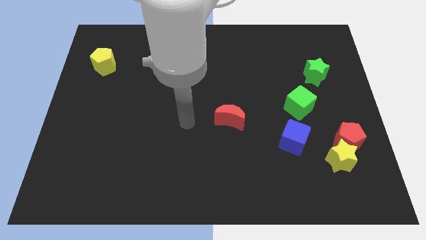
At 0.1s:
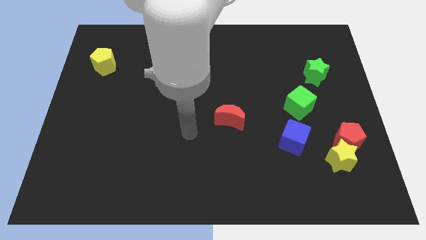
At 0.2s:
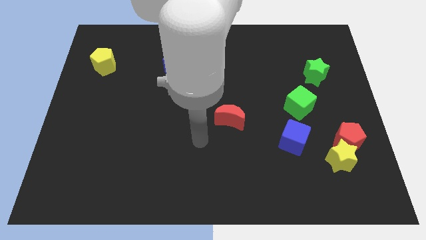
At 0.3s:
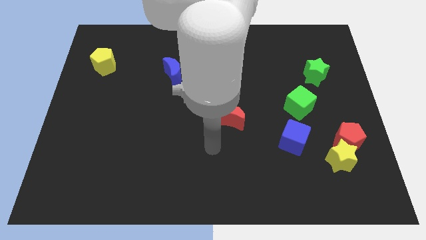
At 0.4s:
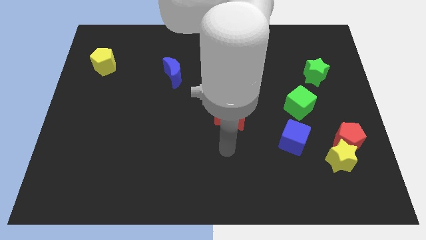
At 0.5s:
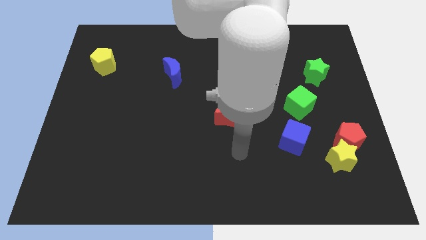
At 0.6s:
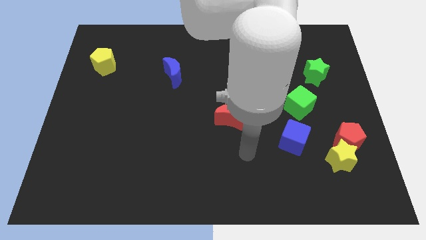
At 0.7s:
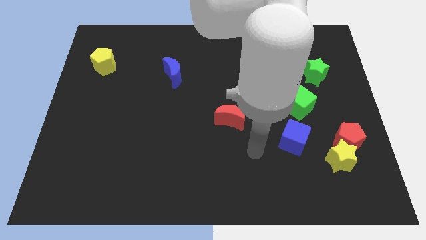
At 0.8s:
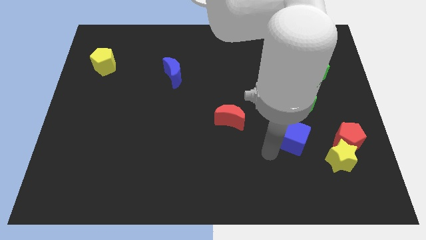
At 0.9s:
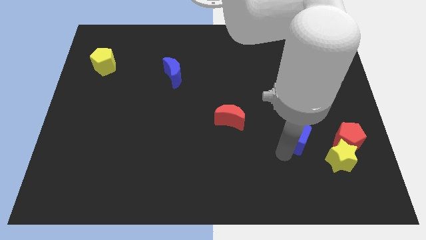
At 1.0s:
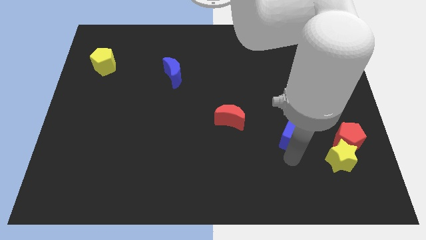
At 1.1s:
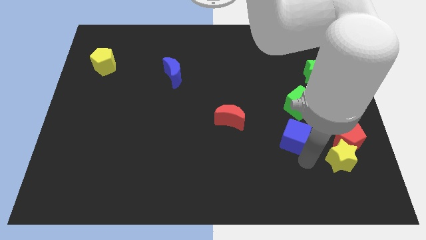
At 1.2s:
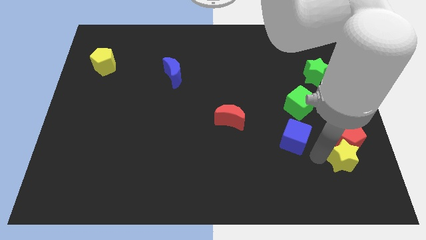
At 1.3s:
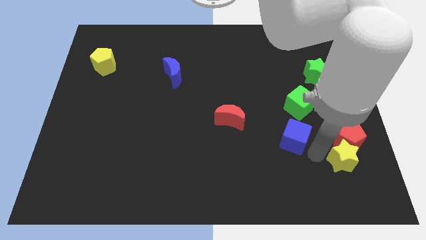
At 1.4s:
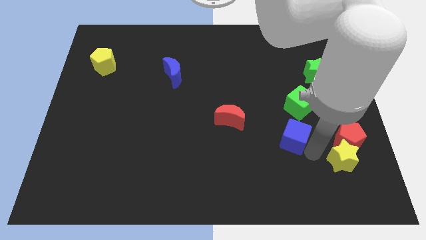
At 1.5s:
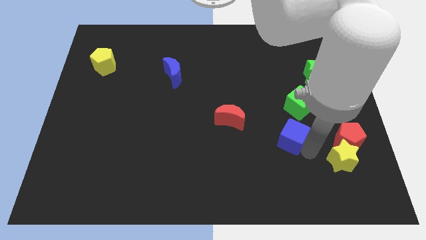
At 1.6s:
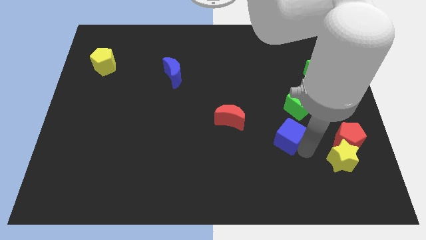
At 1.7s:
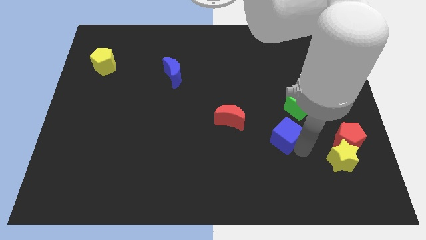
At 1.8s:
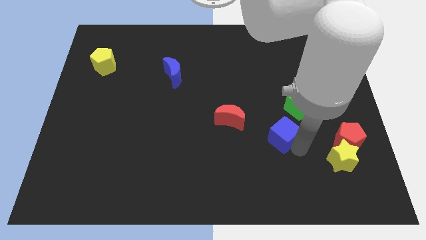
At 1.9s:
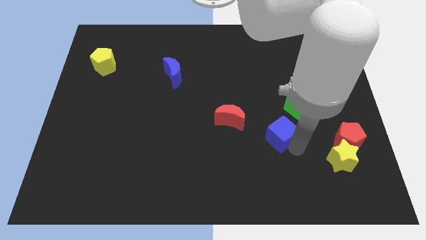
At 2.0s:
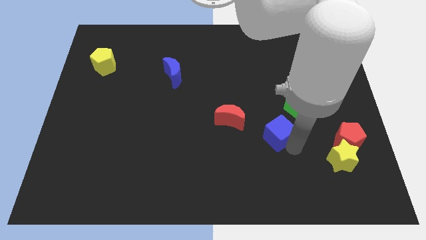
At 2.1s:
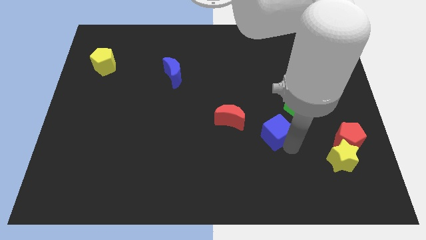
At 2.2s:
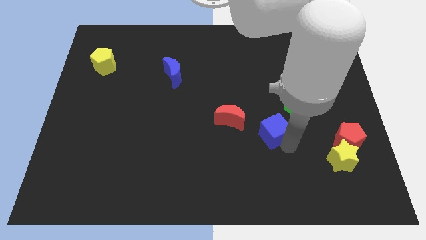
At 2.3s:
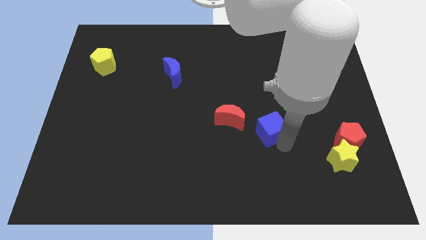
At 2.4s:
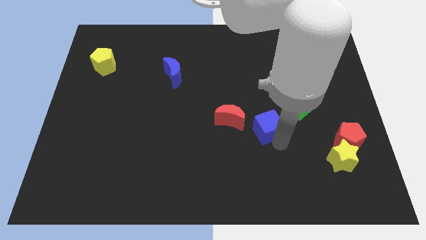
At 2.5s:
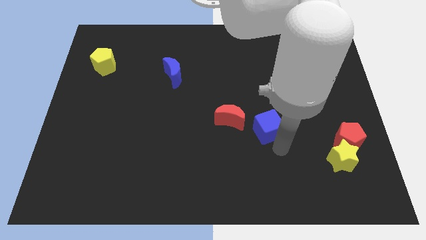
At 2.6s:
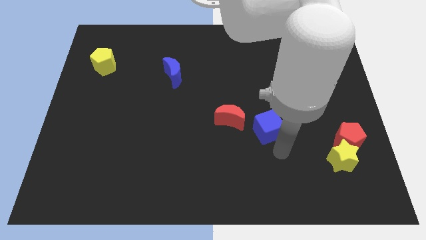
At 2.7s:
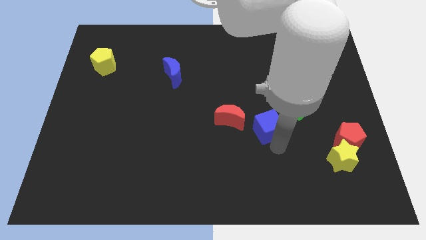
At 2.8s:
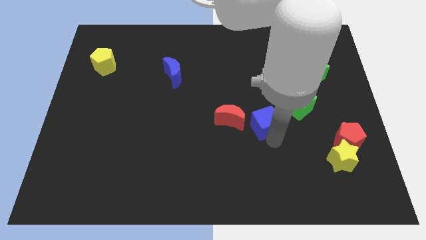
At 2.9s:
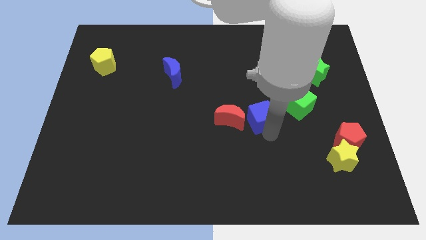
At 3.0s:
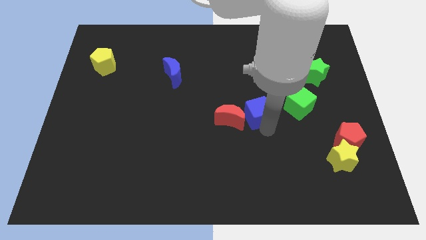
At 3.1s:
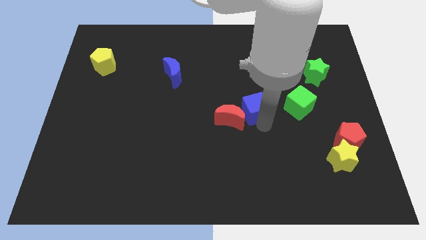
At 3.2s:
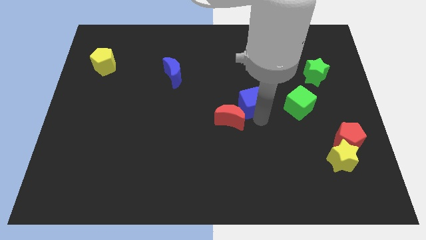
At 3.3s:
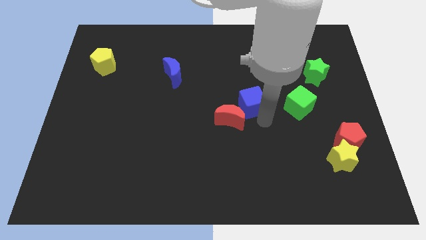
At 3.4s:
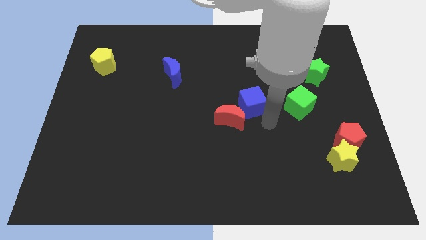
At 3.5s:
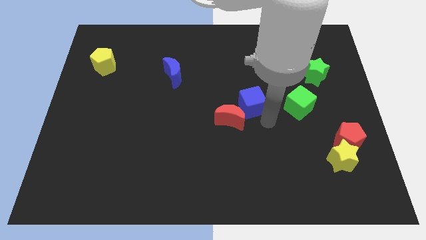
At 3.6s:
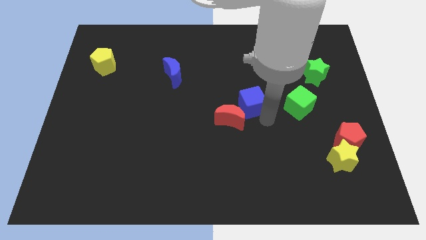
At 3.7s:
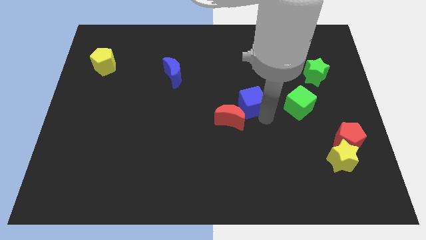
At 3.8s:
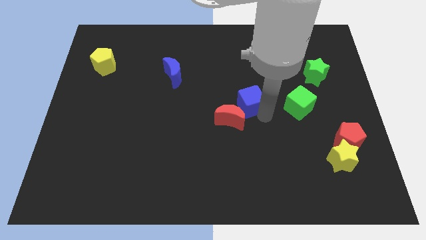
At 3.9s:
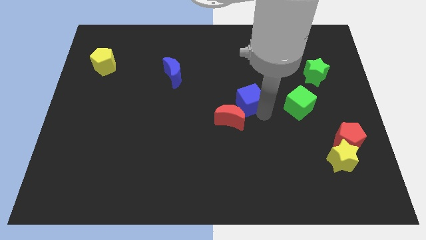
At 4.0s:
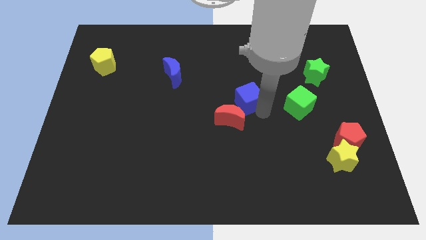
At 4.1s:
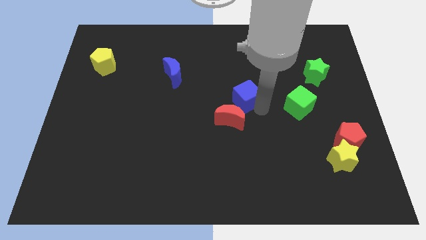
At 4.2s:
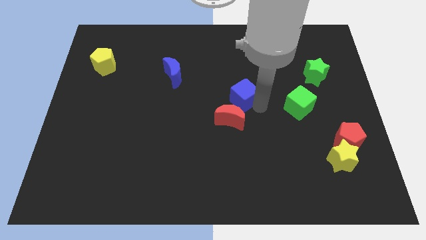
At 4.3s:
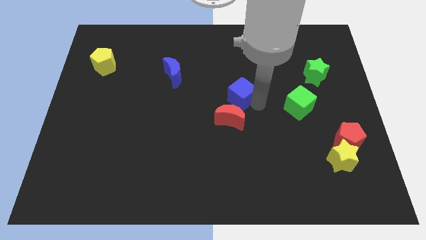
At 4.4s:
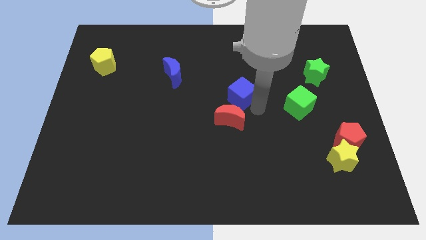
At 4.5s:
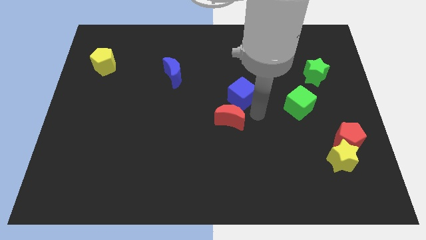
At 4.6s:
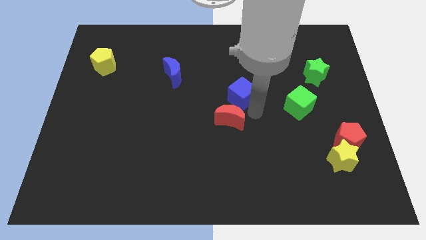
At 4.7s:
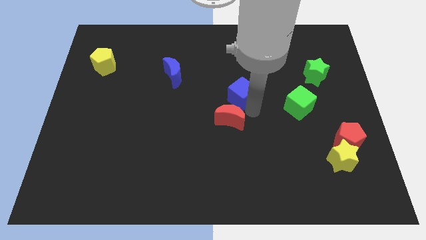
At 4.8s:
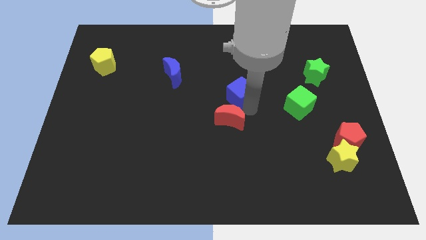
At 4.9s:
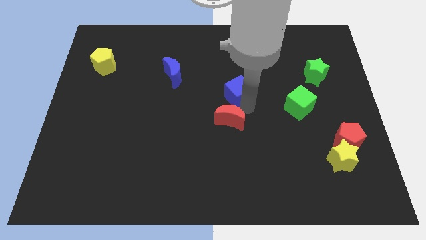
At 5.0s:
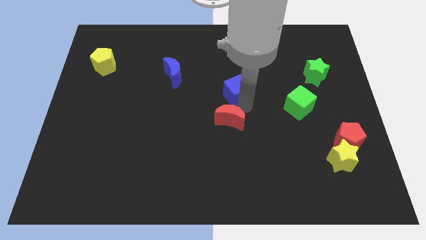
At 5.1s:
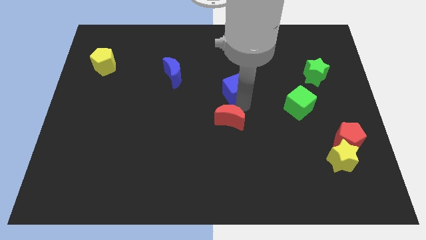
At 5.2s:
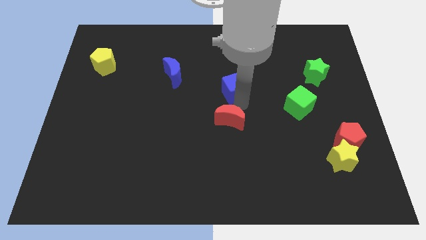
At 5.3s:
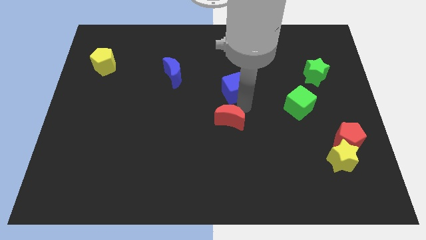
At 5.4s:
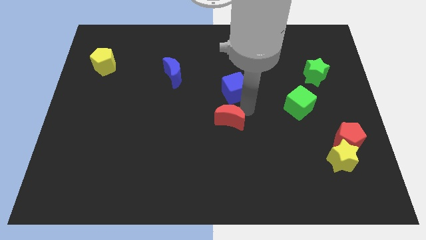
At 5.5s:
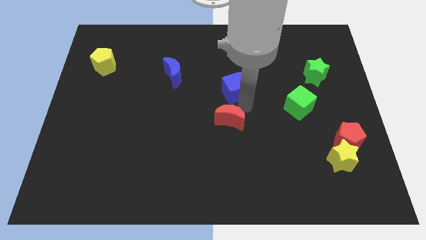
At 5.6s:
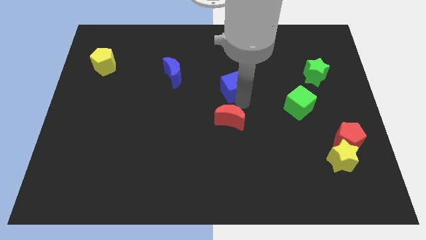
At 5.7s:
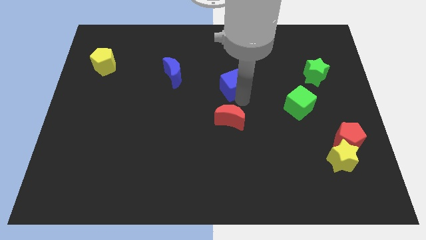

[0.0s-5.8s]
move the blue cube upwards and left diagonally

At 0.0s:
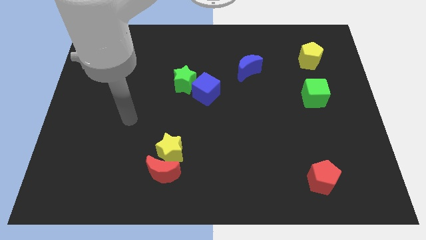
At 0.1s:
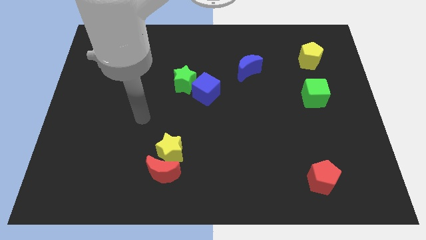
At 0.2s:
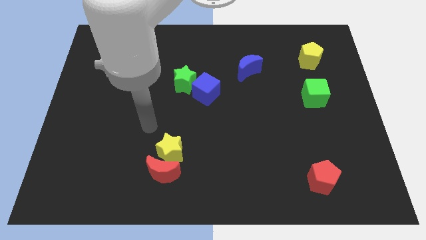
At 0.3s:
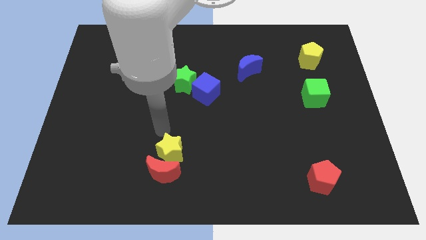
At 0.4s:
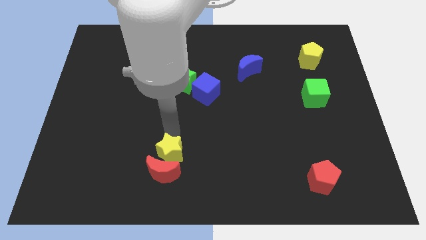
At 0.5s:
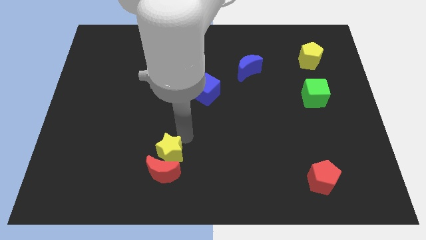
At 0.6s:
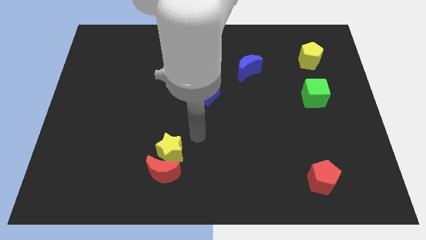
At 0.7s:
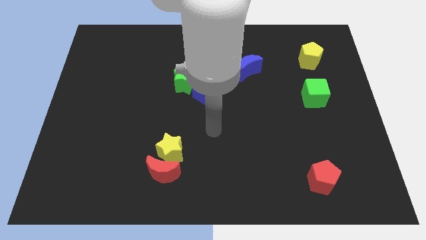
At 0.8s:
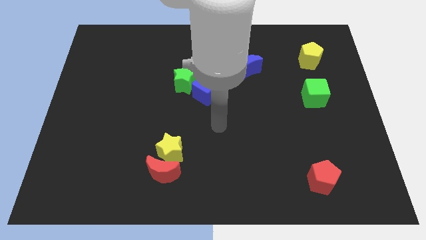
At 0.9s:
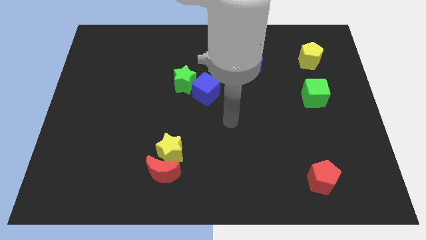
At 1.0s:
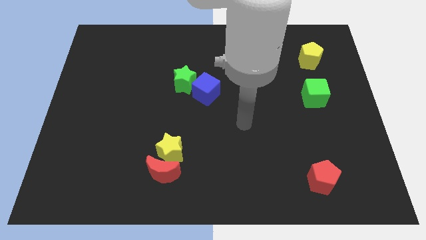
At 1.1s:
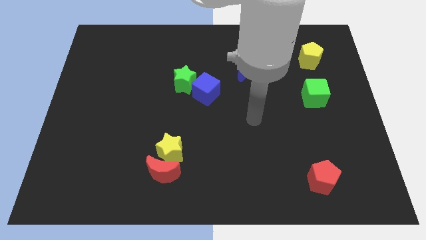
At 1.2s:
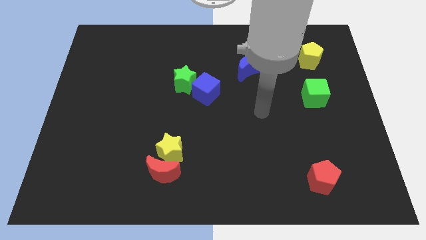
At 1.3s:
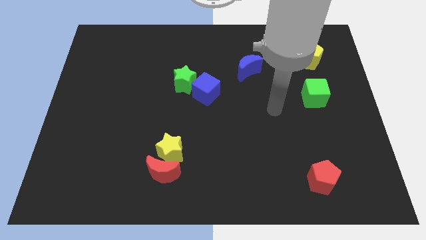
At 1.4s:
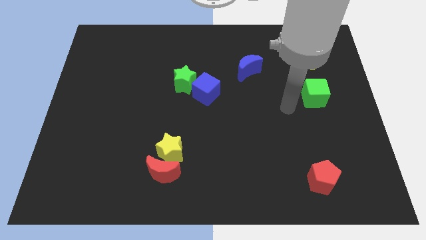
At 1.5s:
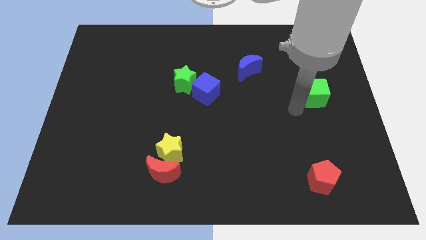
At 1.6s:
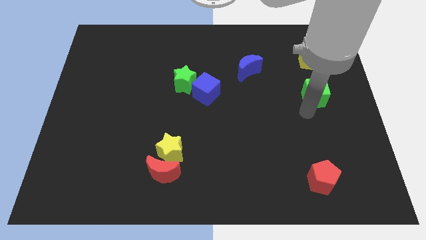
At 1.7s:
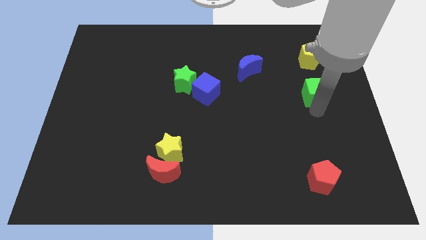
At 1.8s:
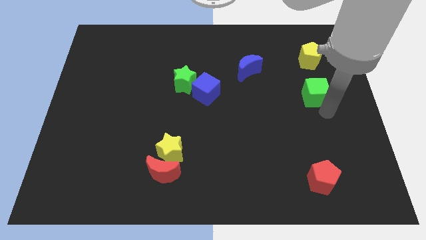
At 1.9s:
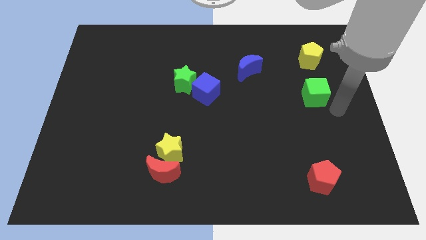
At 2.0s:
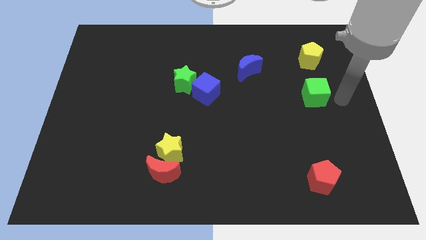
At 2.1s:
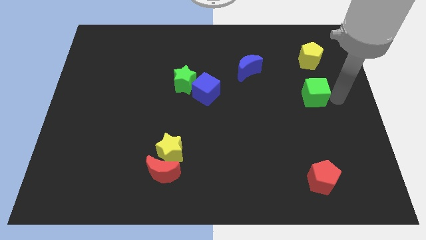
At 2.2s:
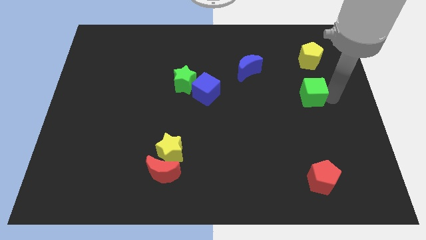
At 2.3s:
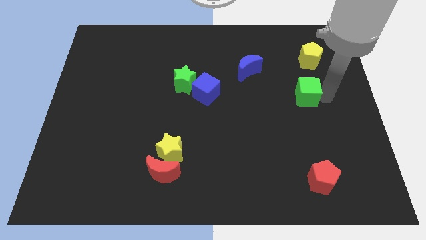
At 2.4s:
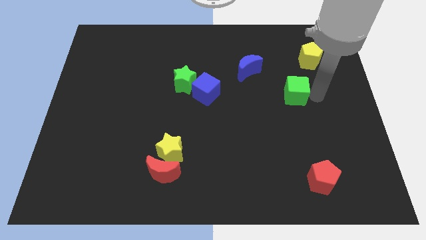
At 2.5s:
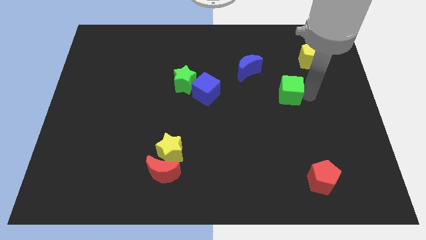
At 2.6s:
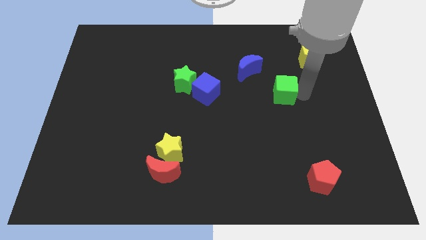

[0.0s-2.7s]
move the green cube left somewhat

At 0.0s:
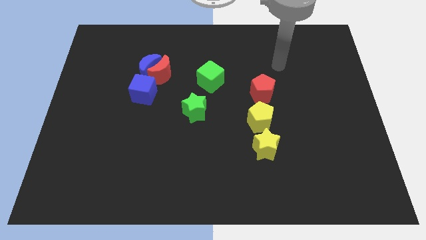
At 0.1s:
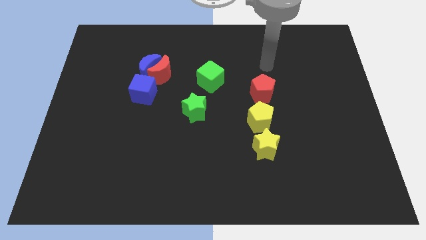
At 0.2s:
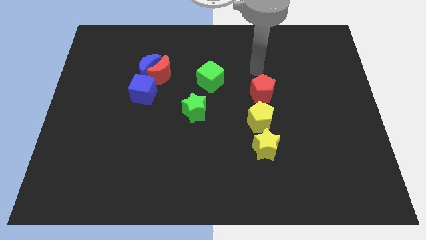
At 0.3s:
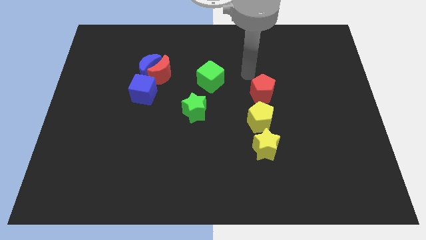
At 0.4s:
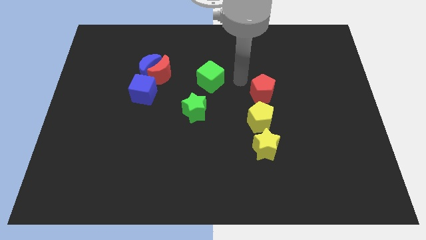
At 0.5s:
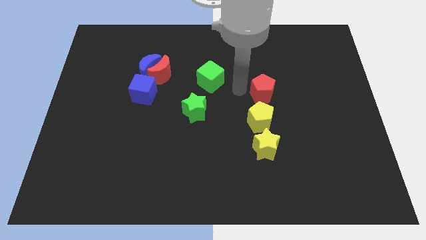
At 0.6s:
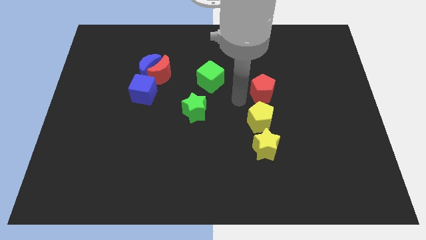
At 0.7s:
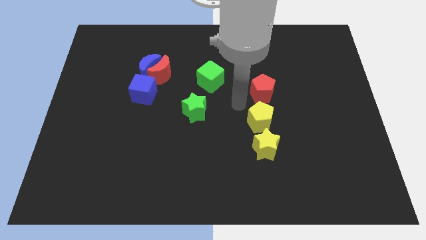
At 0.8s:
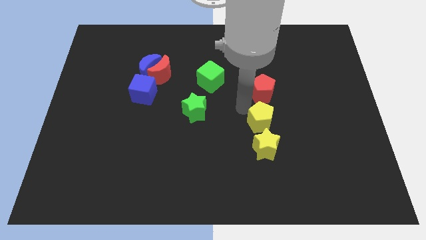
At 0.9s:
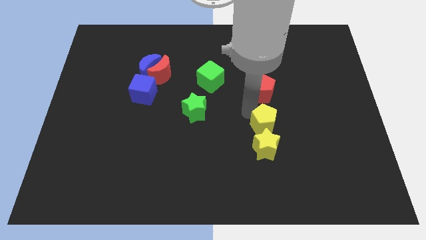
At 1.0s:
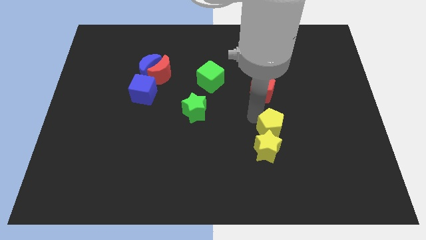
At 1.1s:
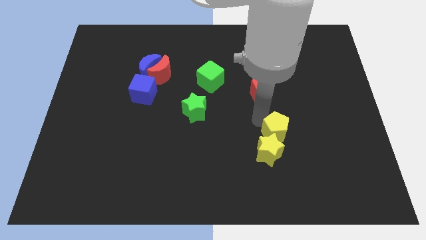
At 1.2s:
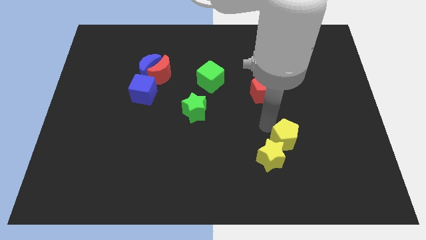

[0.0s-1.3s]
push the yellow pentagon a little diagonally downwards and right
